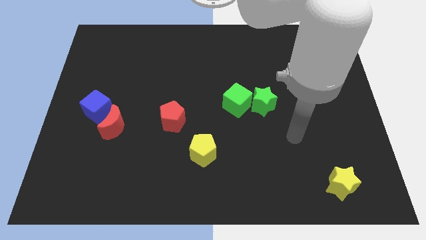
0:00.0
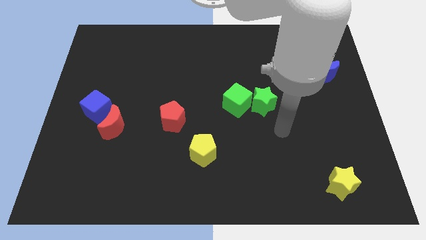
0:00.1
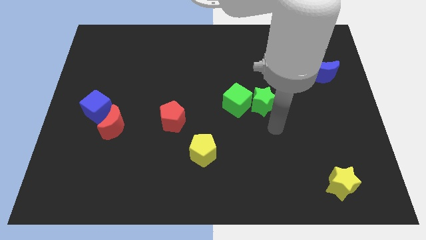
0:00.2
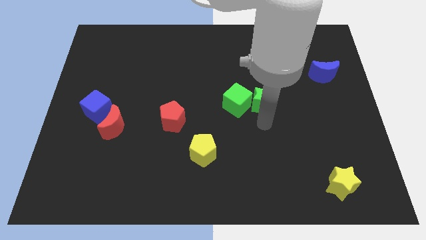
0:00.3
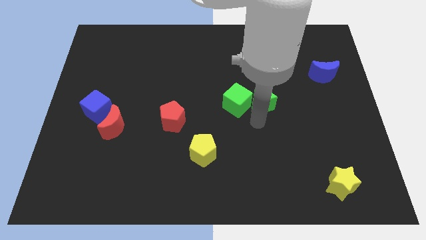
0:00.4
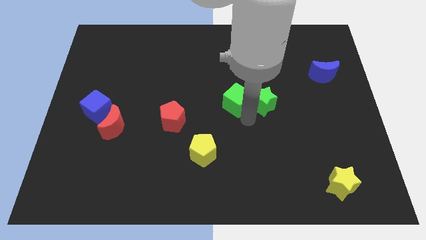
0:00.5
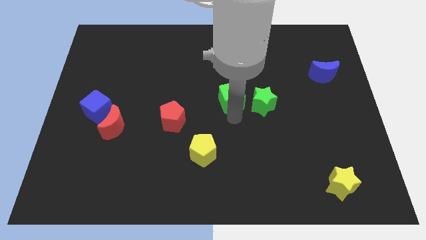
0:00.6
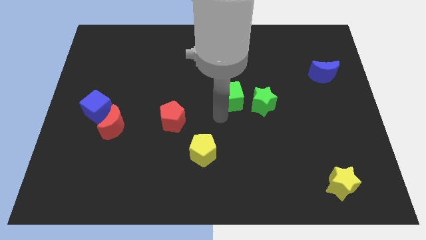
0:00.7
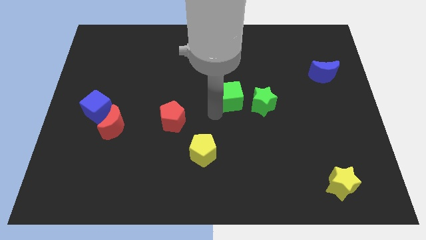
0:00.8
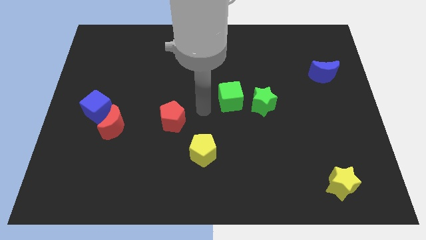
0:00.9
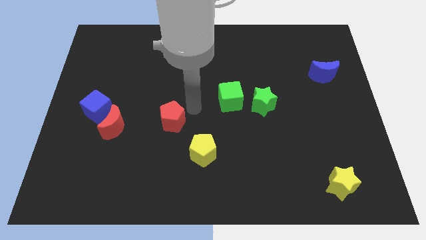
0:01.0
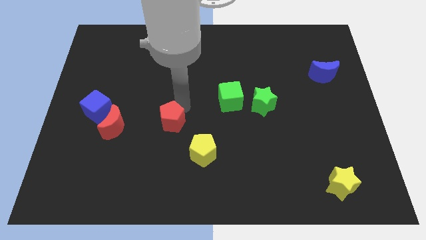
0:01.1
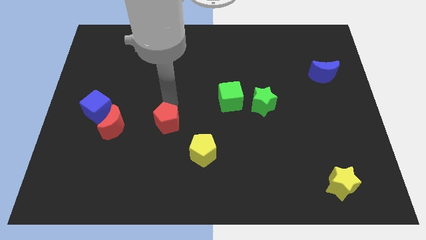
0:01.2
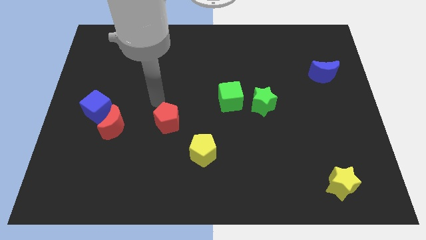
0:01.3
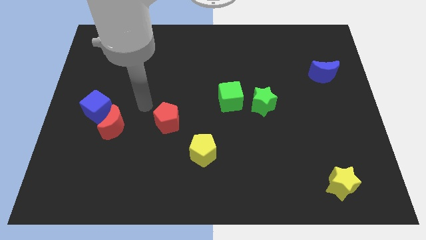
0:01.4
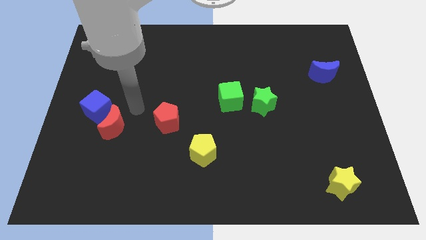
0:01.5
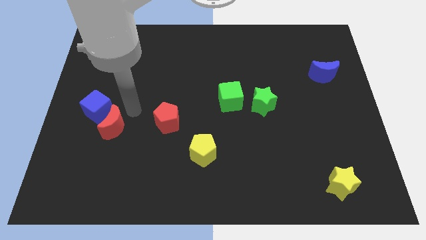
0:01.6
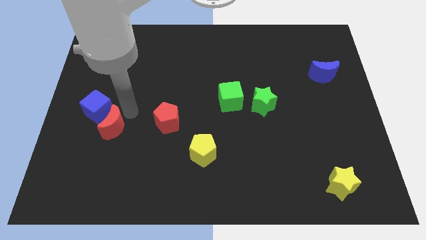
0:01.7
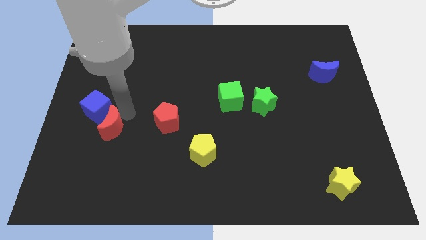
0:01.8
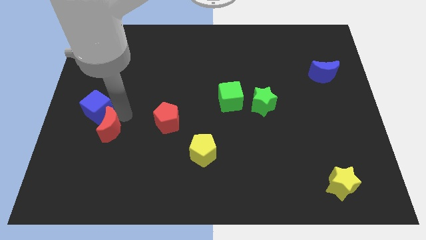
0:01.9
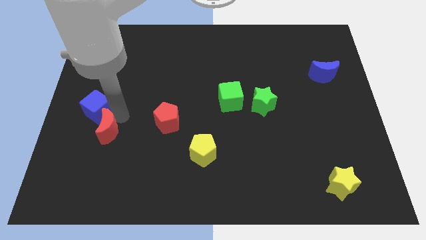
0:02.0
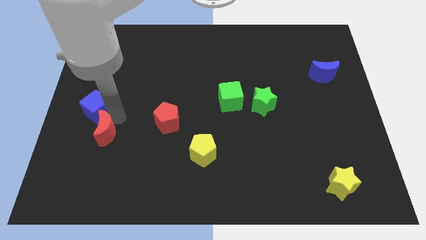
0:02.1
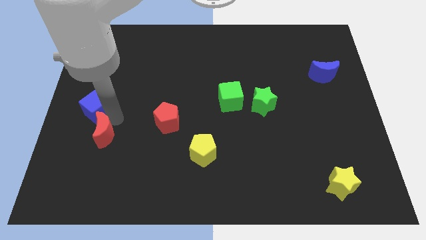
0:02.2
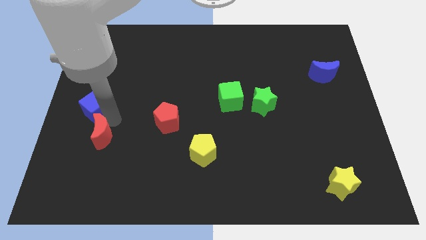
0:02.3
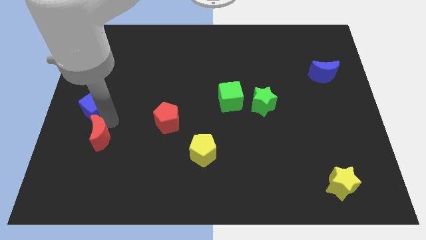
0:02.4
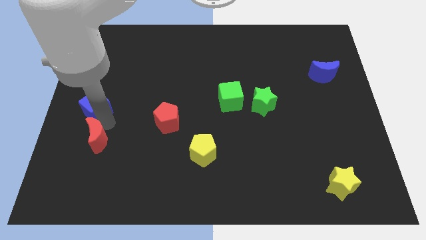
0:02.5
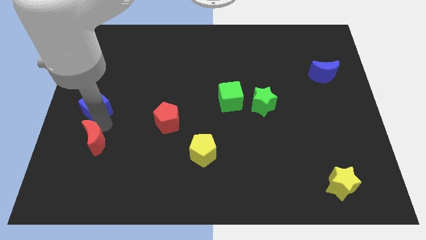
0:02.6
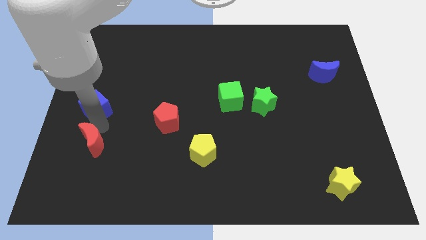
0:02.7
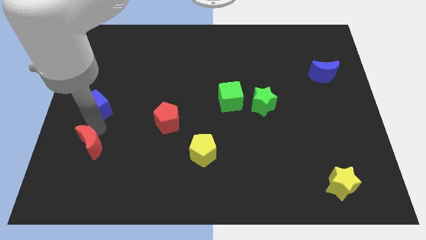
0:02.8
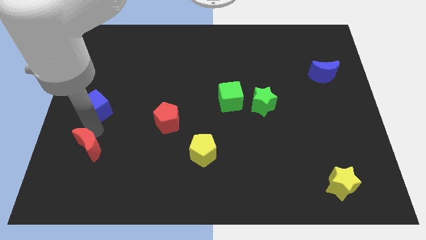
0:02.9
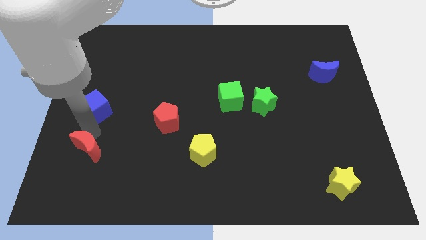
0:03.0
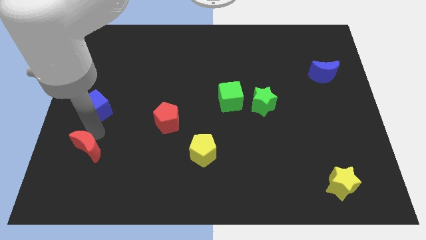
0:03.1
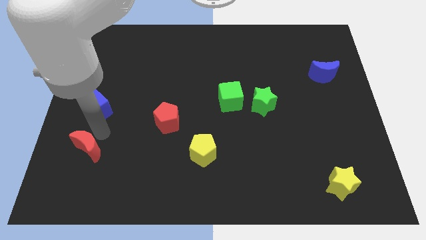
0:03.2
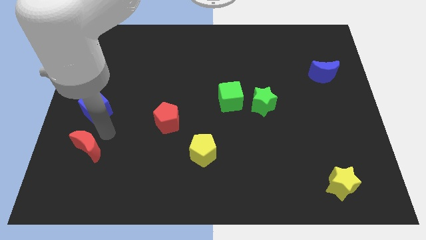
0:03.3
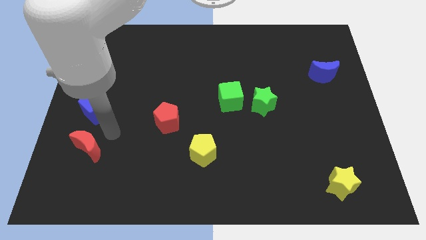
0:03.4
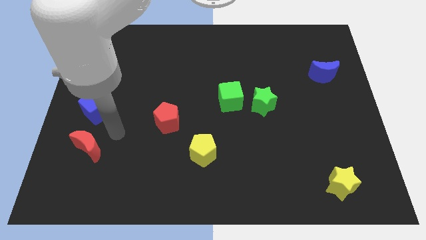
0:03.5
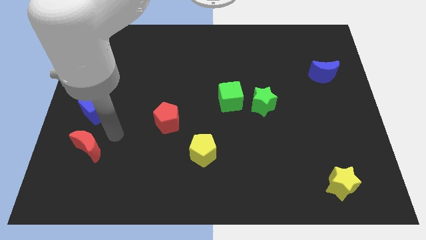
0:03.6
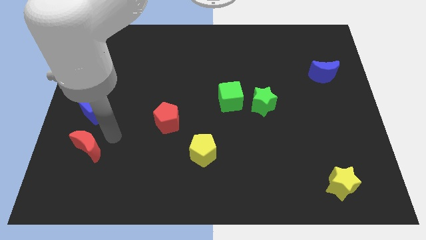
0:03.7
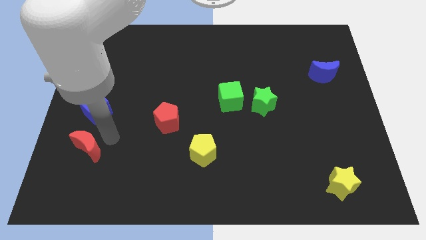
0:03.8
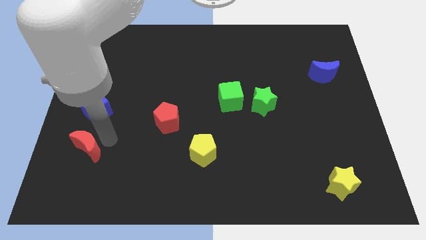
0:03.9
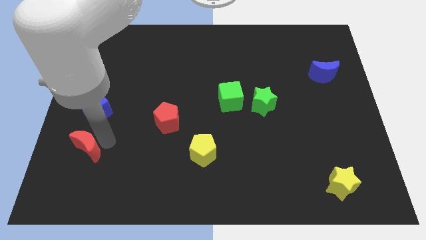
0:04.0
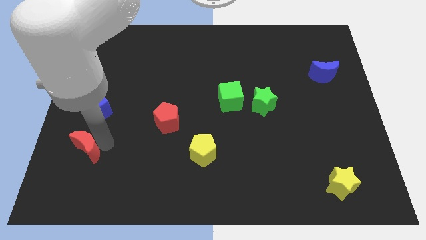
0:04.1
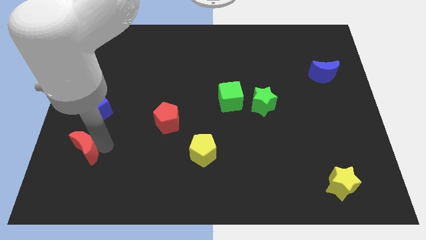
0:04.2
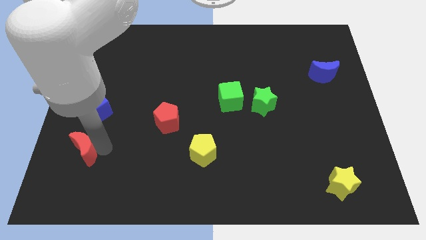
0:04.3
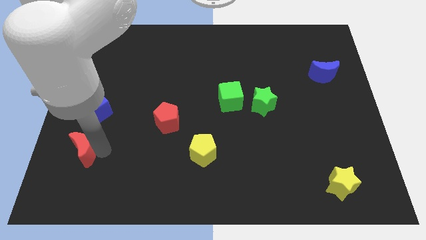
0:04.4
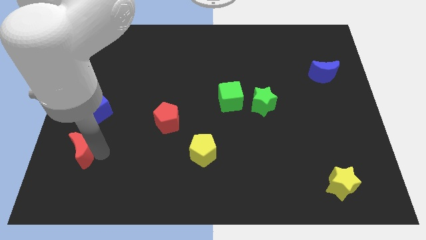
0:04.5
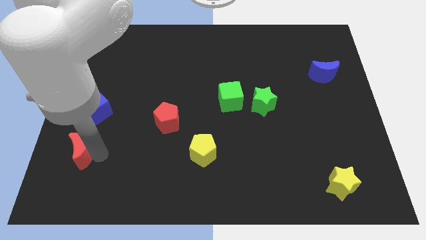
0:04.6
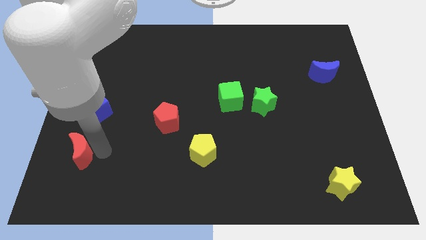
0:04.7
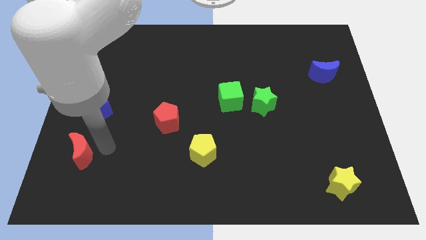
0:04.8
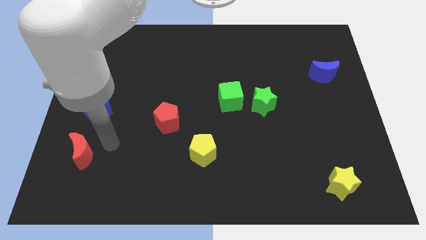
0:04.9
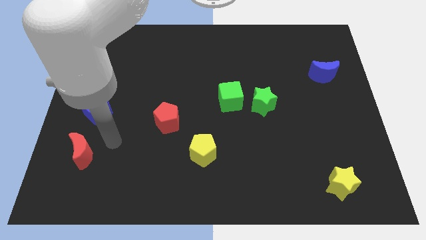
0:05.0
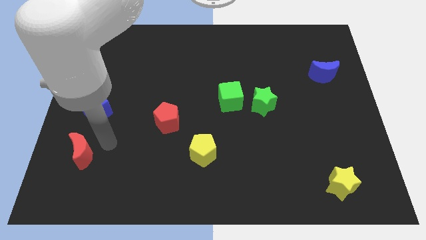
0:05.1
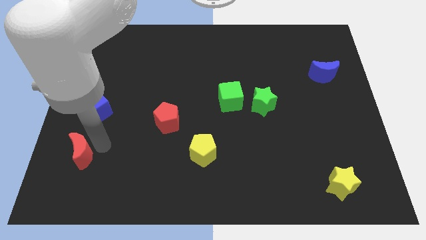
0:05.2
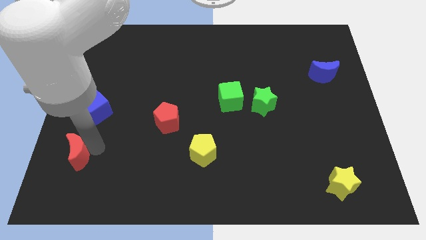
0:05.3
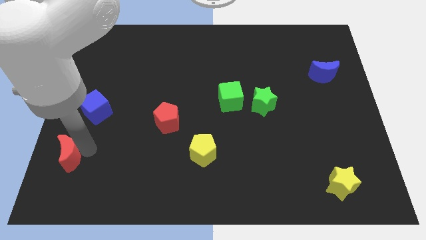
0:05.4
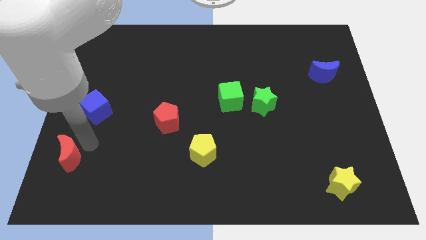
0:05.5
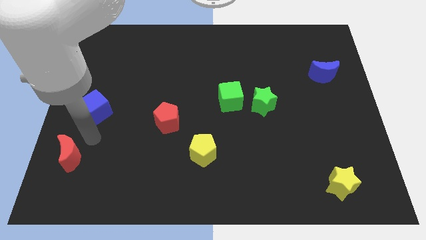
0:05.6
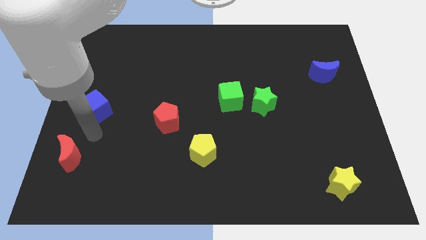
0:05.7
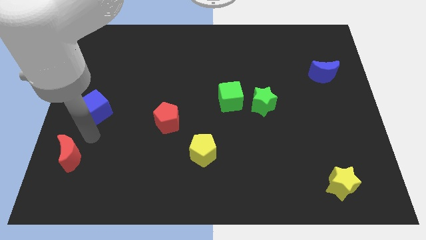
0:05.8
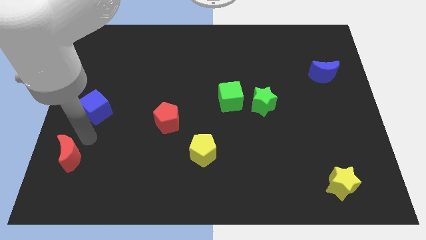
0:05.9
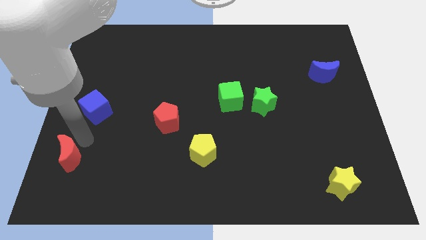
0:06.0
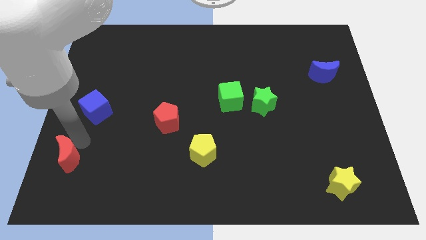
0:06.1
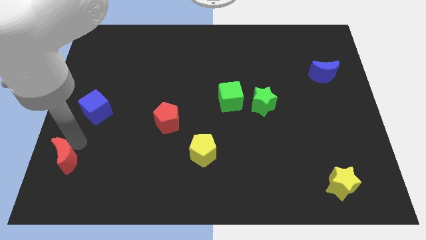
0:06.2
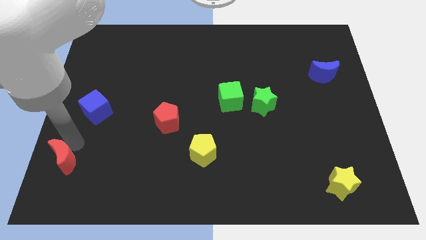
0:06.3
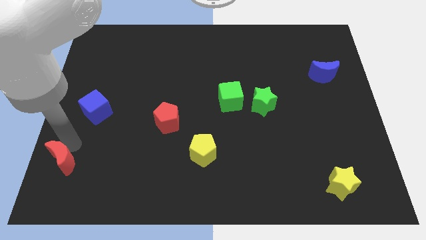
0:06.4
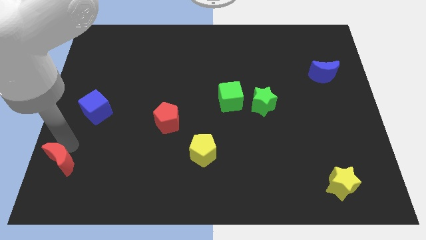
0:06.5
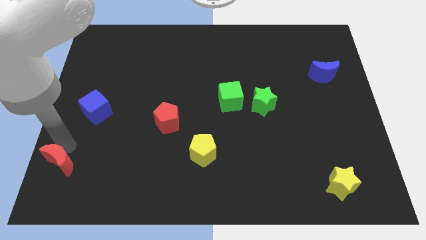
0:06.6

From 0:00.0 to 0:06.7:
slide the red moon to the bottom left of the board
